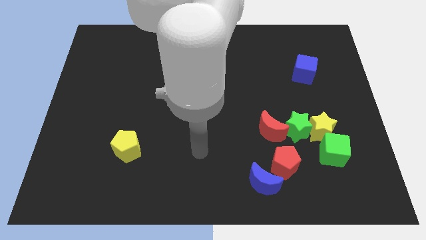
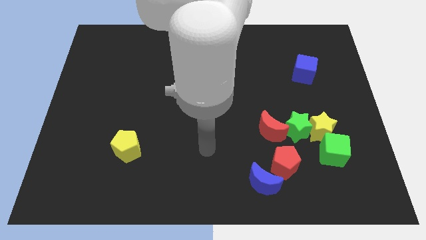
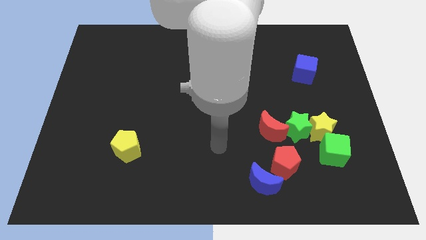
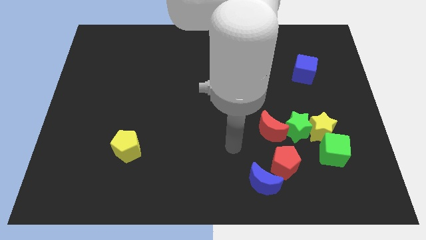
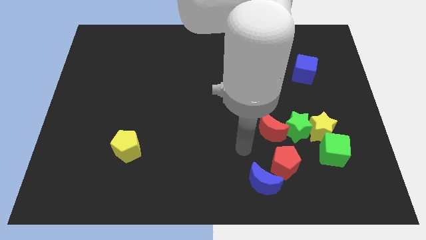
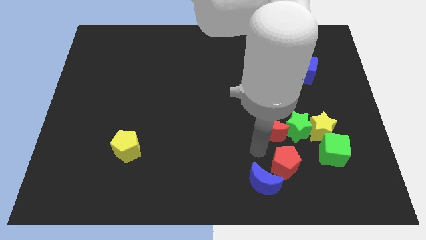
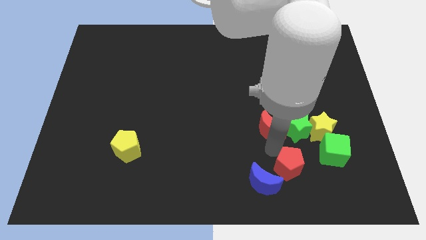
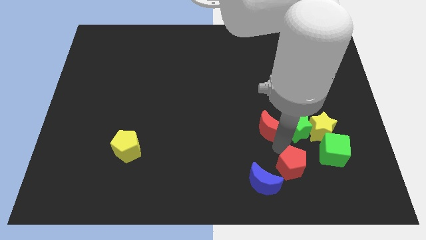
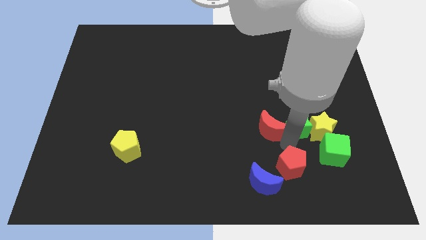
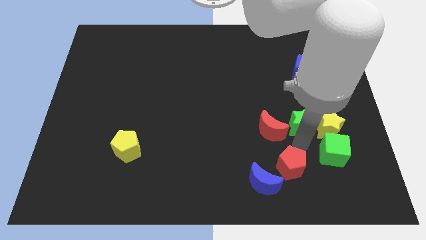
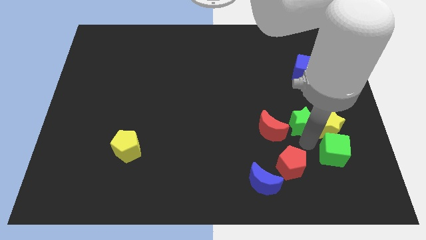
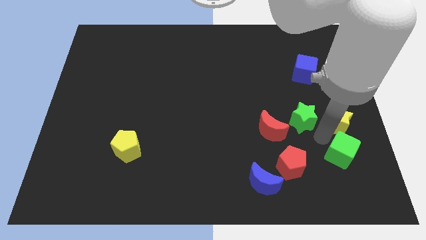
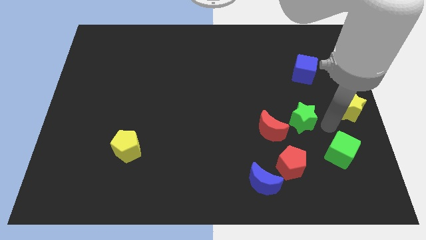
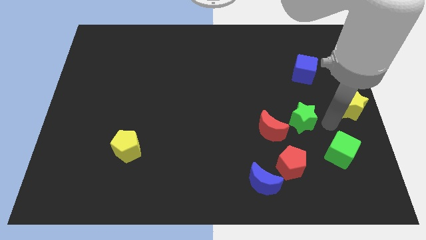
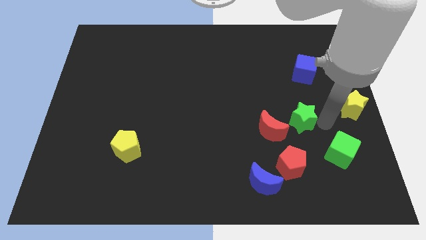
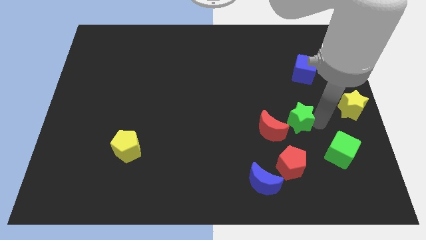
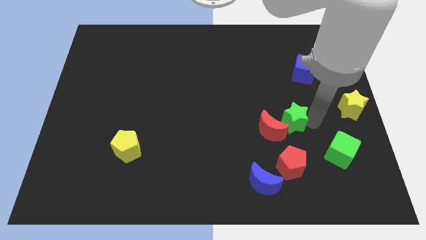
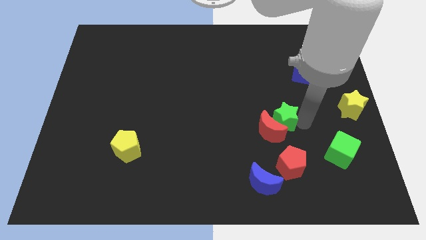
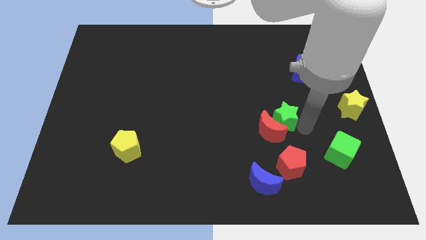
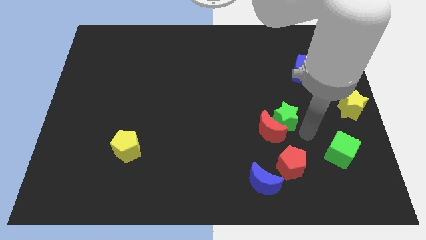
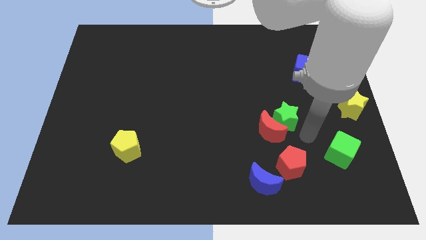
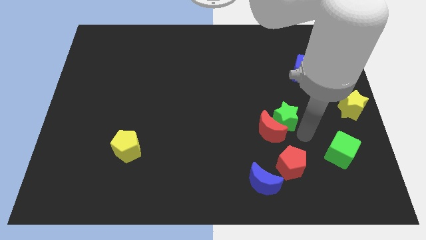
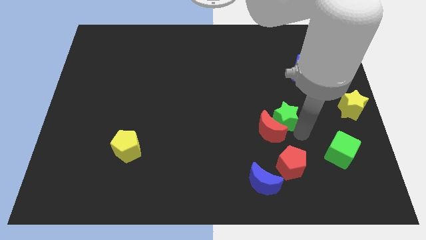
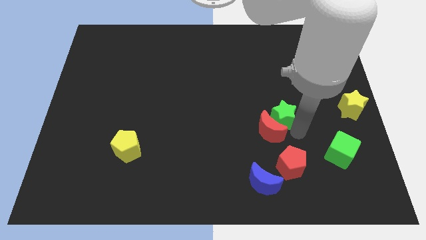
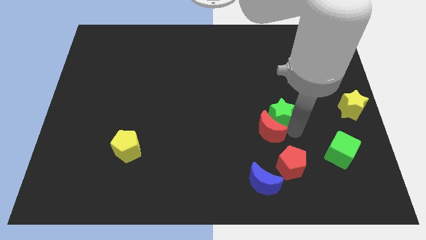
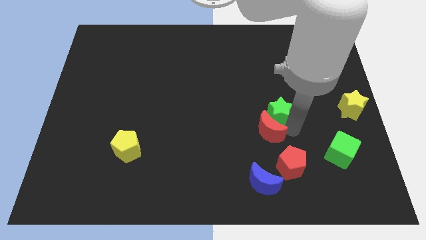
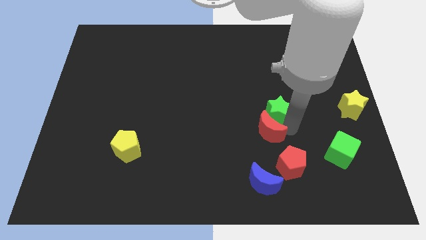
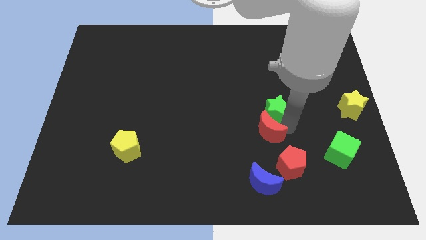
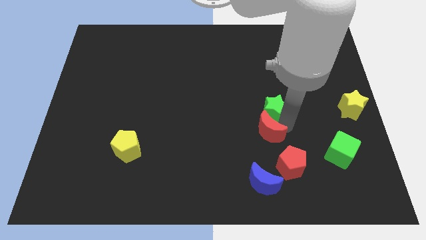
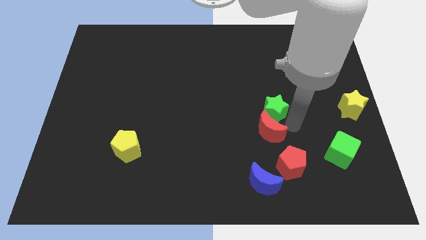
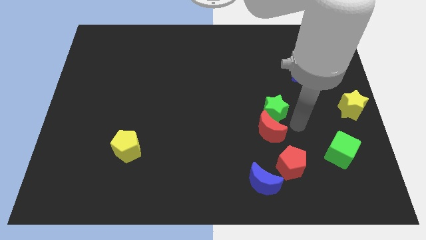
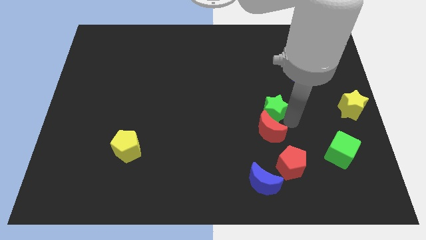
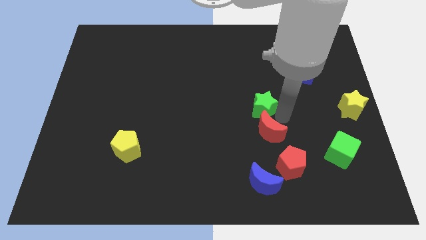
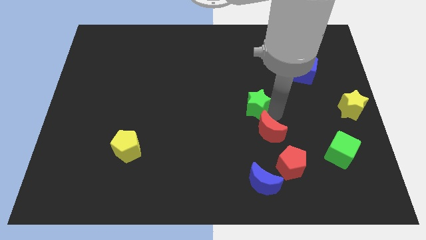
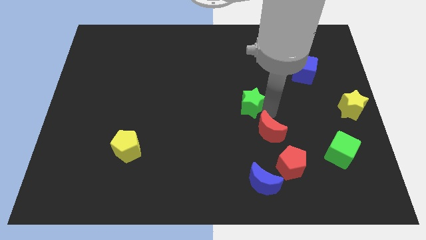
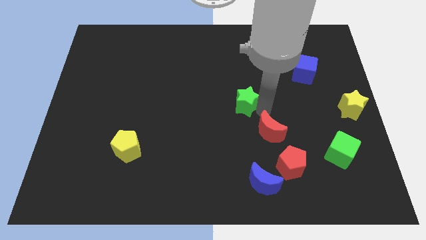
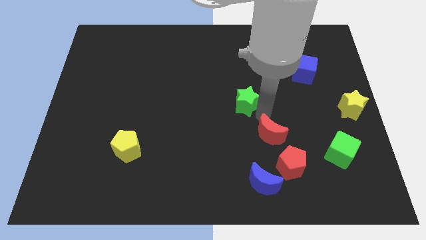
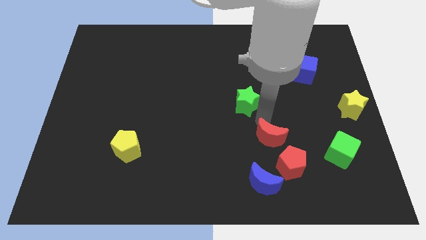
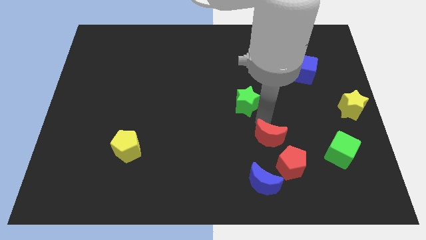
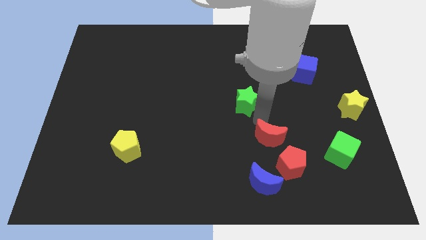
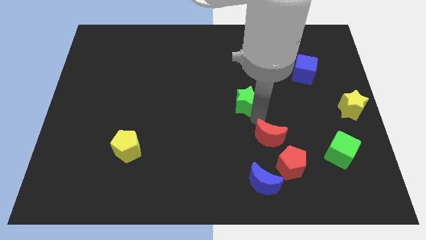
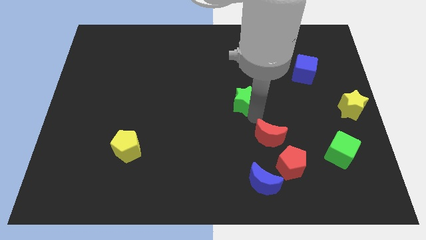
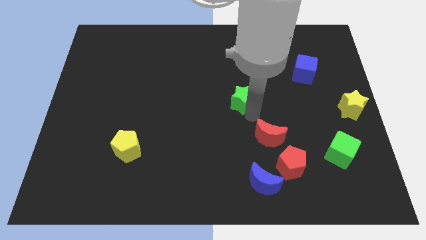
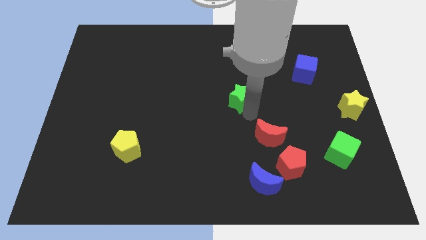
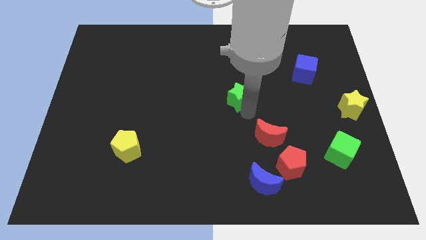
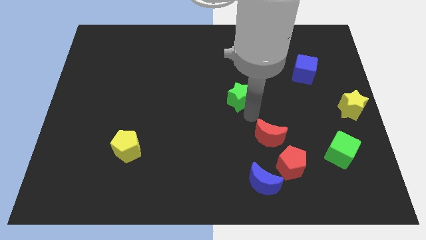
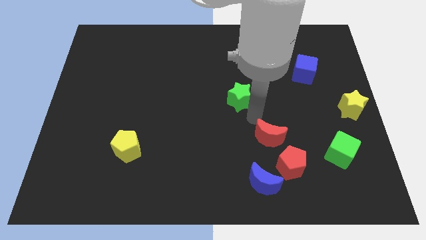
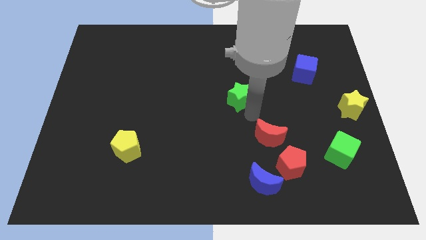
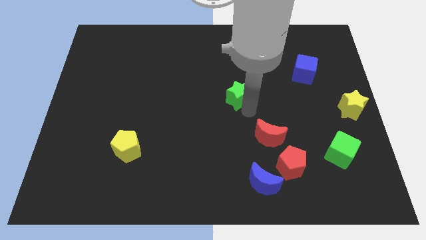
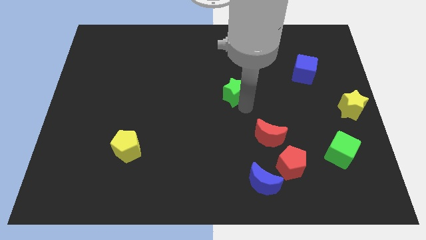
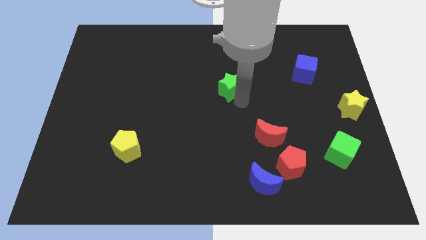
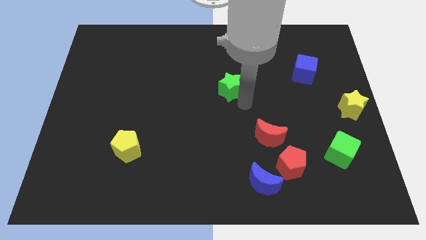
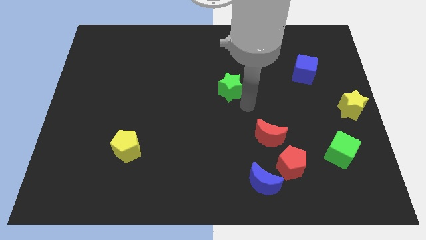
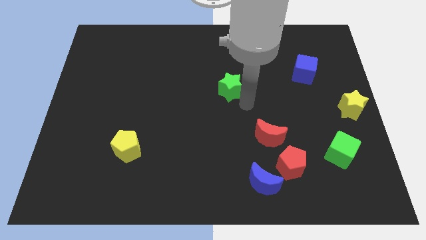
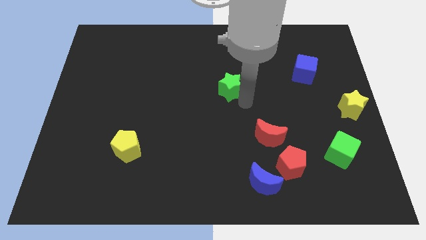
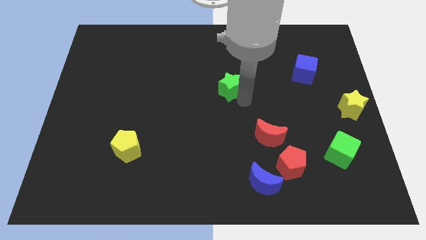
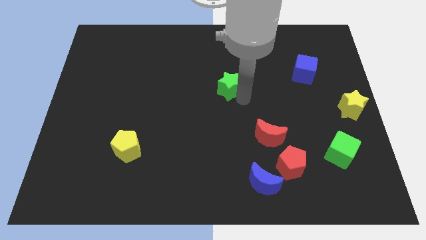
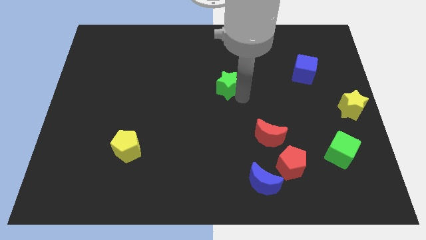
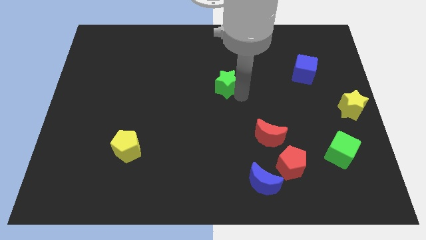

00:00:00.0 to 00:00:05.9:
slide the green star up and to the left diagonally

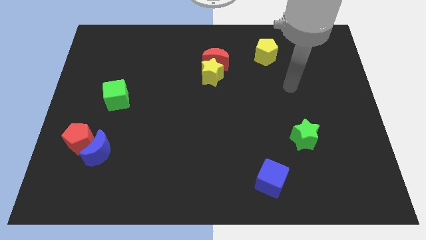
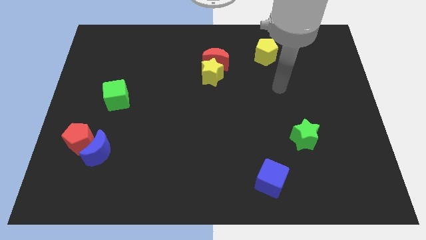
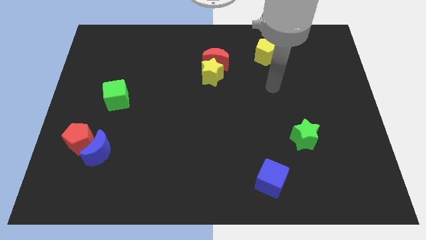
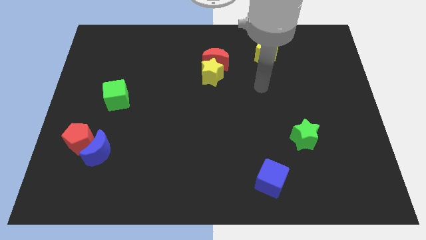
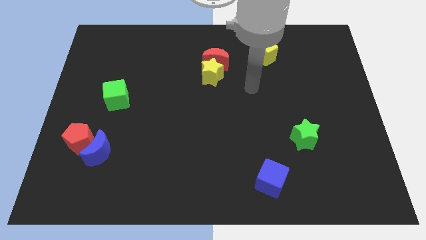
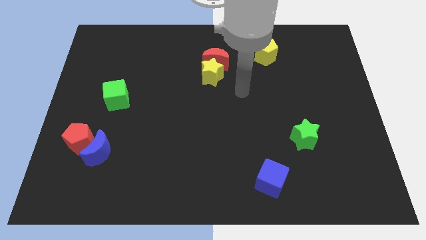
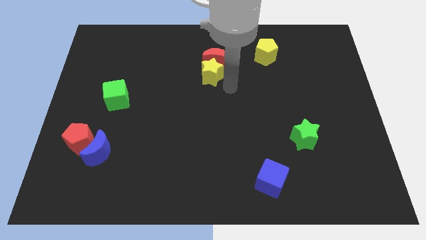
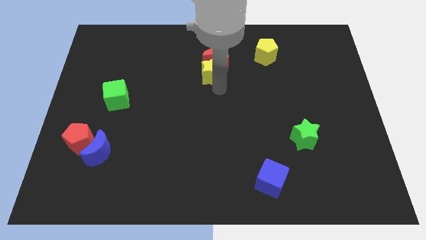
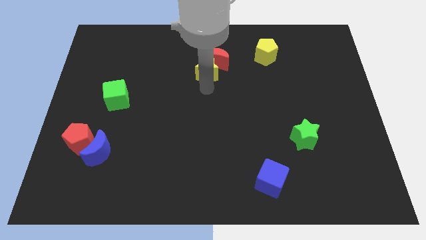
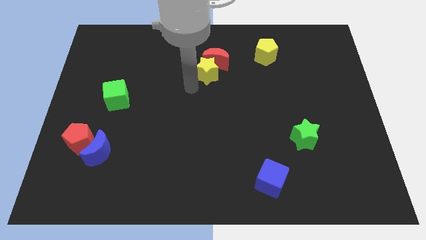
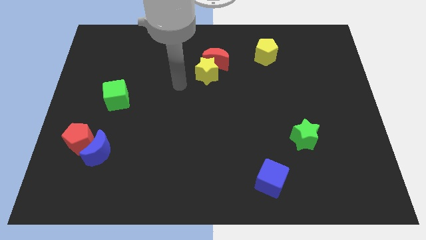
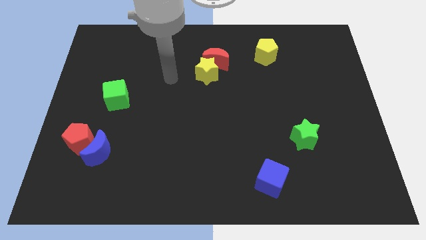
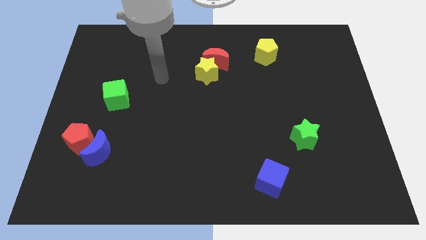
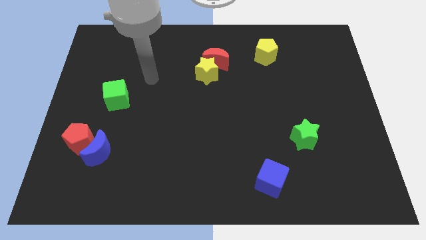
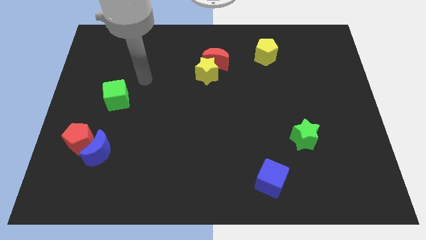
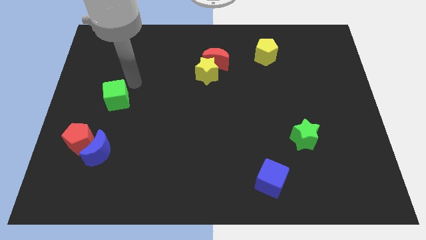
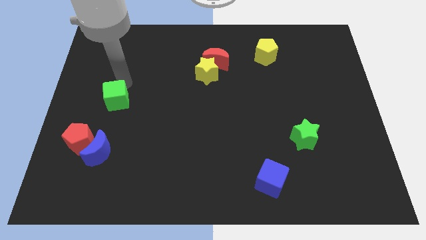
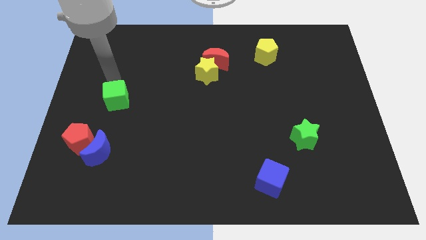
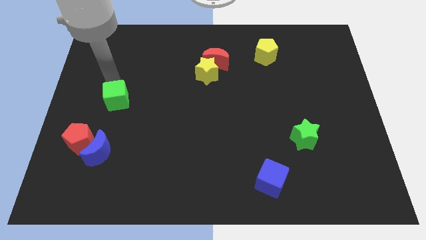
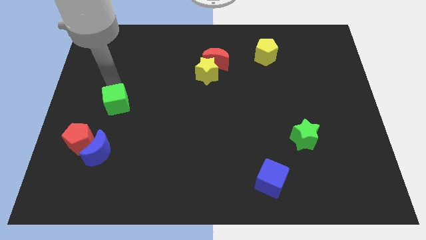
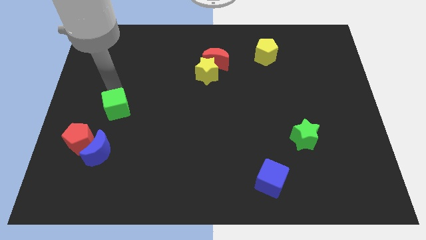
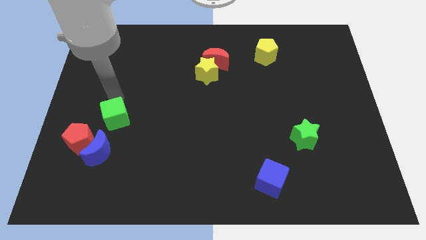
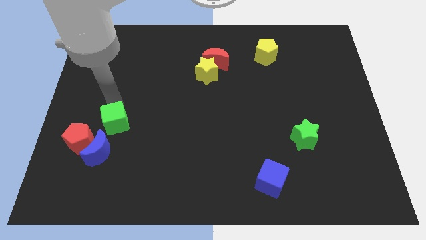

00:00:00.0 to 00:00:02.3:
slightly slide the green cube downwards
